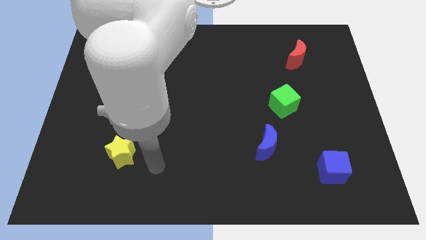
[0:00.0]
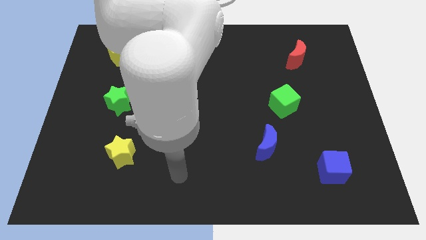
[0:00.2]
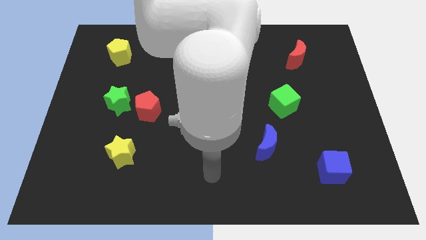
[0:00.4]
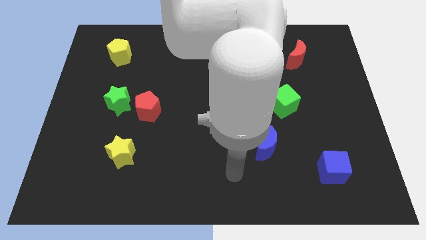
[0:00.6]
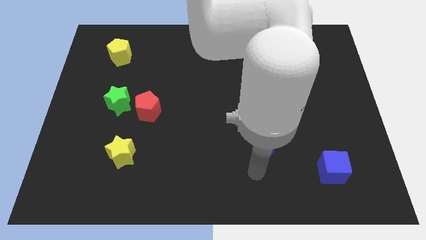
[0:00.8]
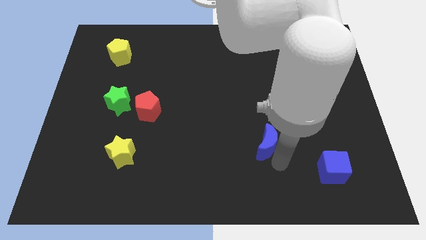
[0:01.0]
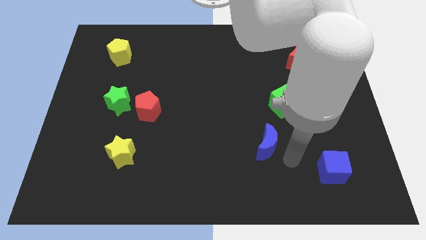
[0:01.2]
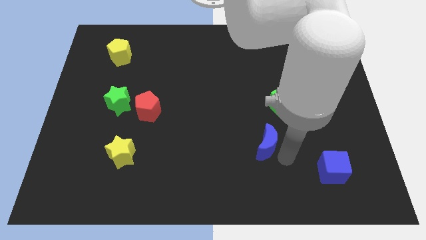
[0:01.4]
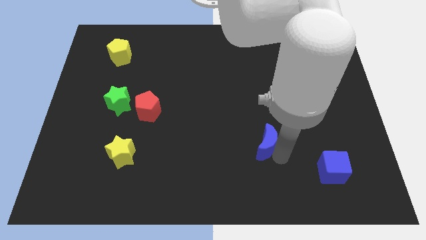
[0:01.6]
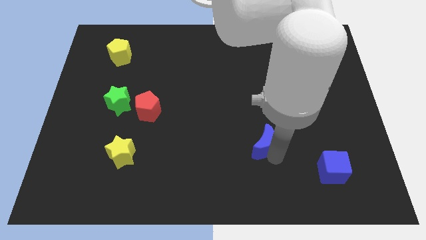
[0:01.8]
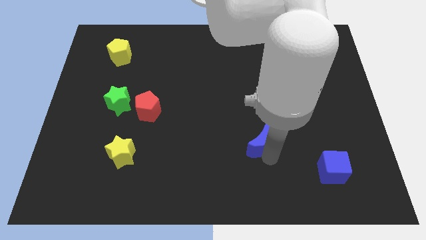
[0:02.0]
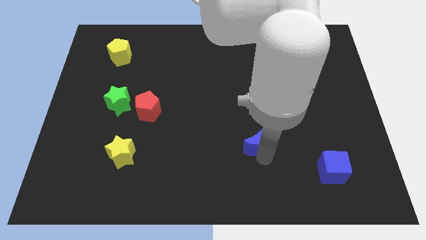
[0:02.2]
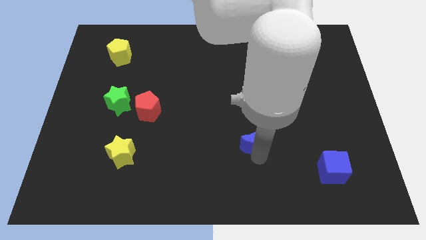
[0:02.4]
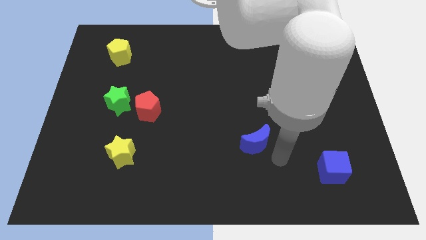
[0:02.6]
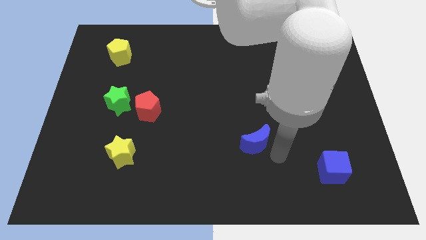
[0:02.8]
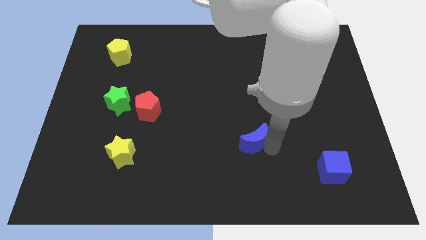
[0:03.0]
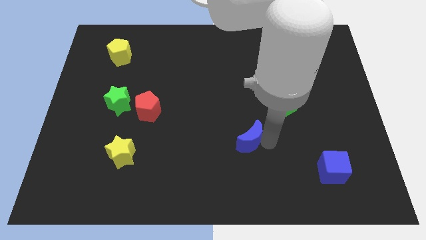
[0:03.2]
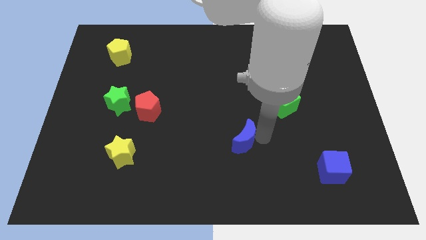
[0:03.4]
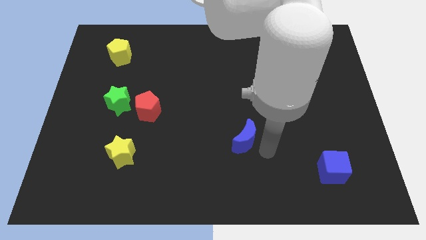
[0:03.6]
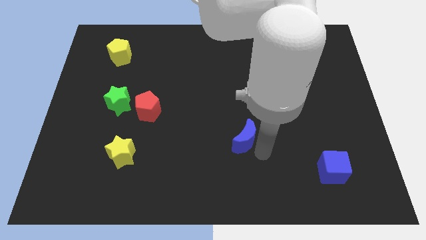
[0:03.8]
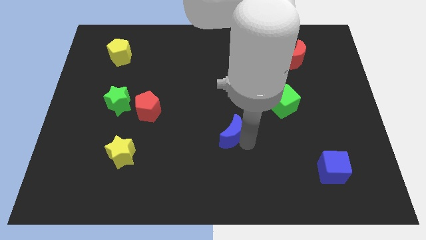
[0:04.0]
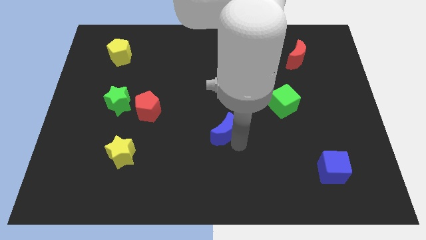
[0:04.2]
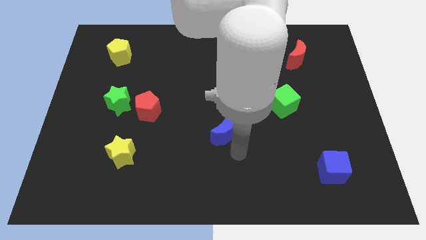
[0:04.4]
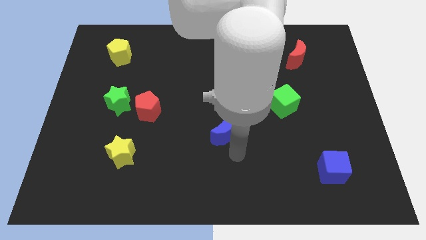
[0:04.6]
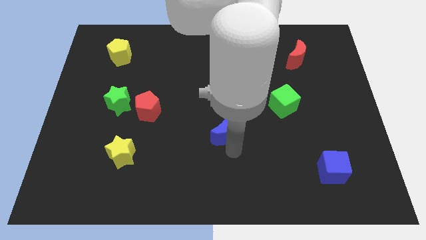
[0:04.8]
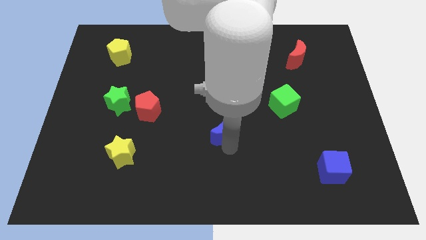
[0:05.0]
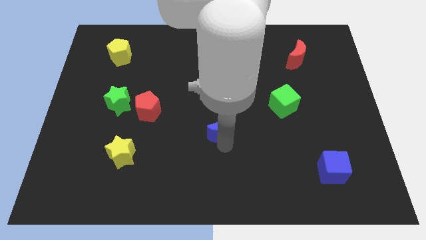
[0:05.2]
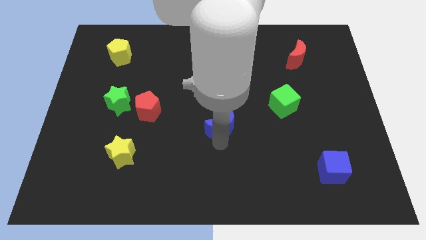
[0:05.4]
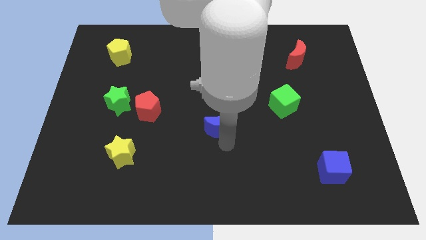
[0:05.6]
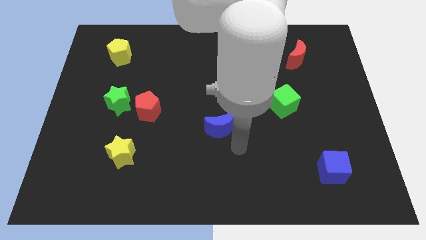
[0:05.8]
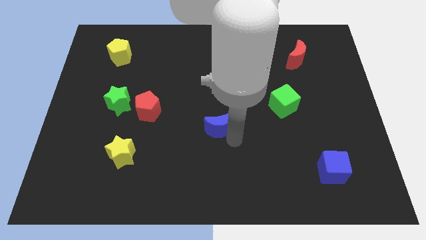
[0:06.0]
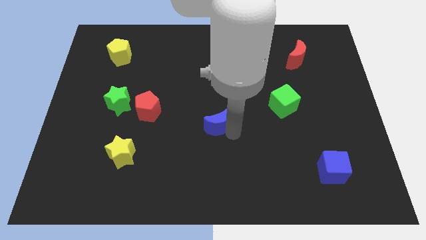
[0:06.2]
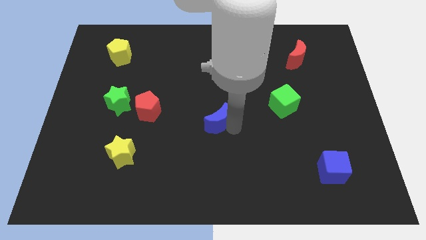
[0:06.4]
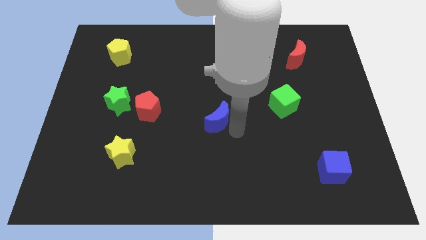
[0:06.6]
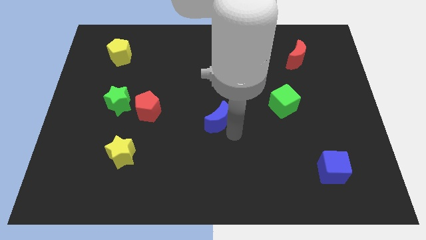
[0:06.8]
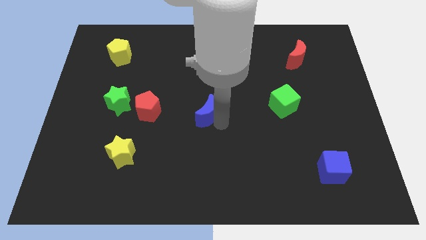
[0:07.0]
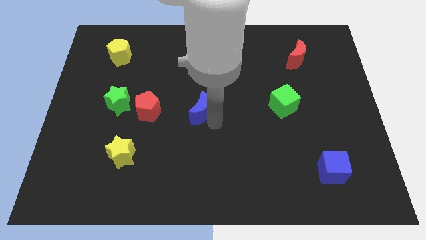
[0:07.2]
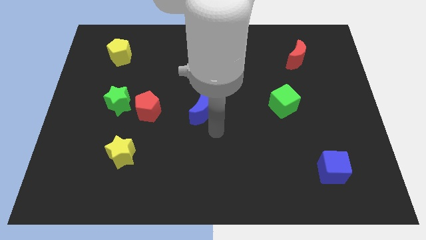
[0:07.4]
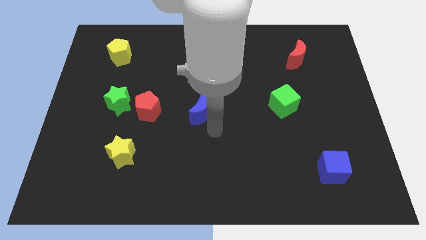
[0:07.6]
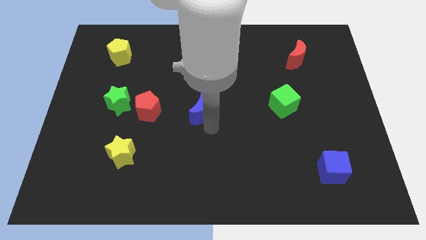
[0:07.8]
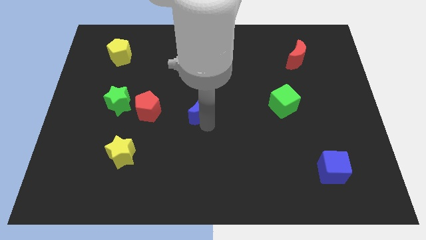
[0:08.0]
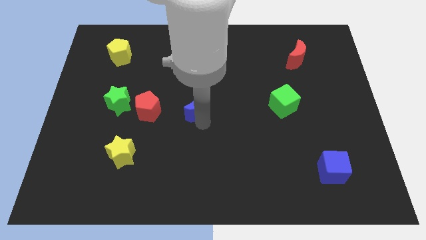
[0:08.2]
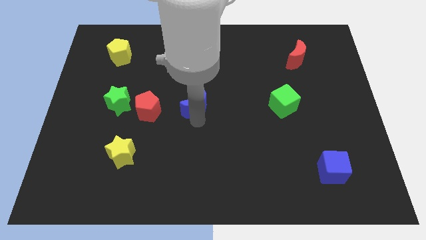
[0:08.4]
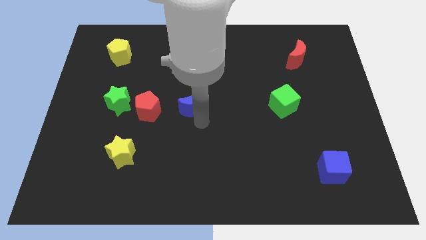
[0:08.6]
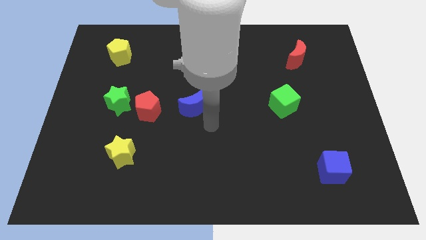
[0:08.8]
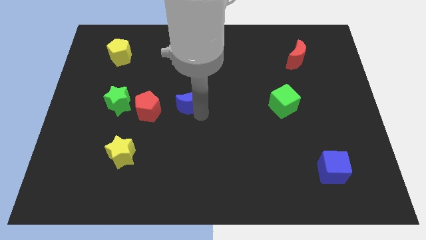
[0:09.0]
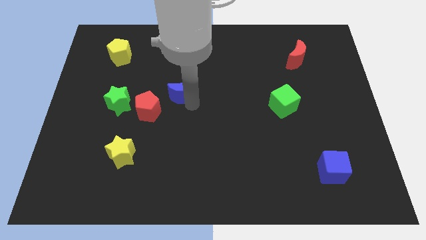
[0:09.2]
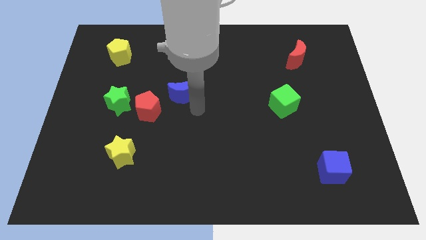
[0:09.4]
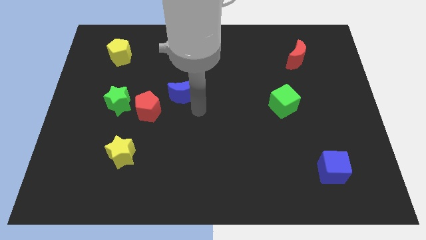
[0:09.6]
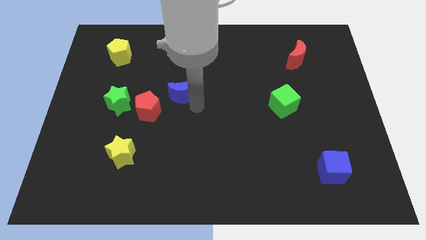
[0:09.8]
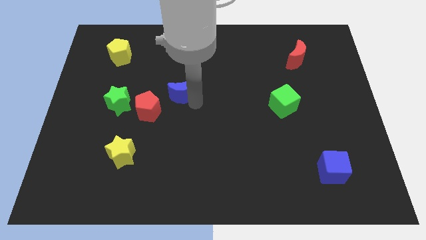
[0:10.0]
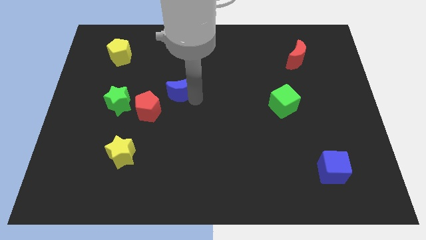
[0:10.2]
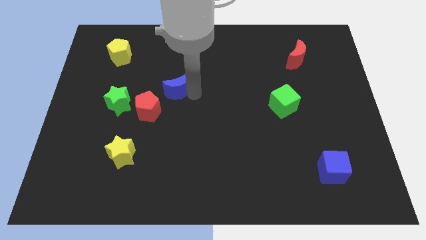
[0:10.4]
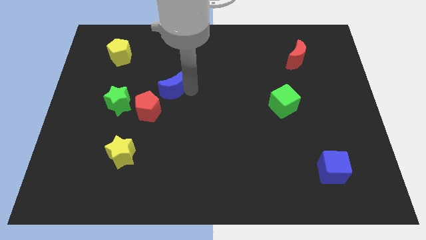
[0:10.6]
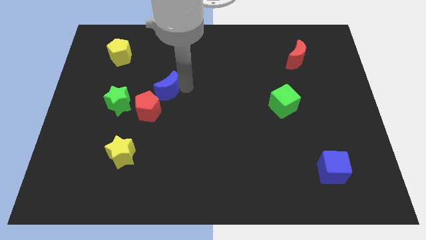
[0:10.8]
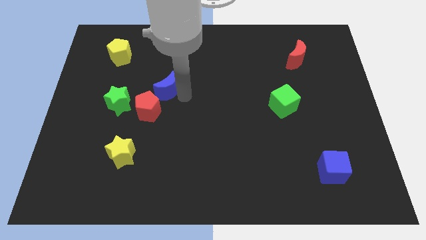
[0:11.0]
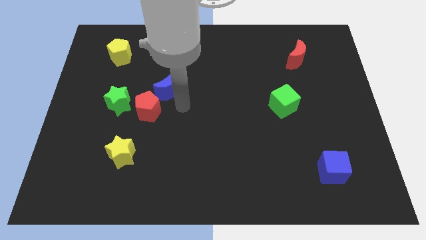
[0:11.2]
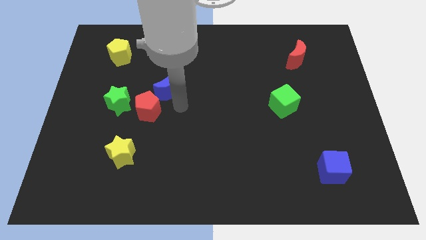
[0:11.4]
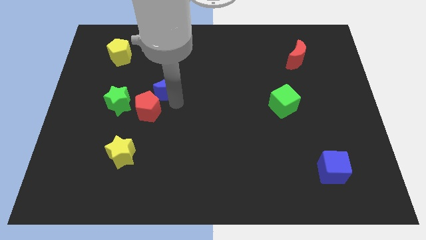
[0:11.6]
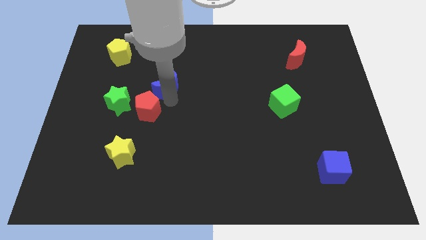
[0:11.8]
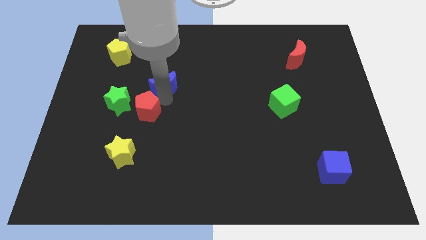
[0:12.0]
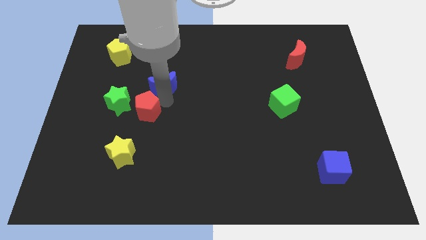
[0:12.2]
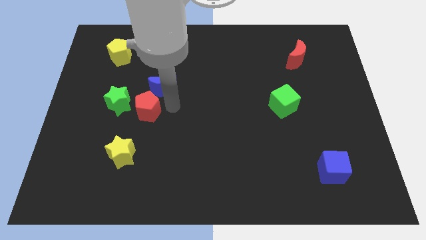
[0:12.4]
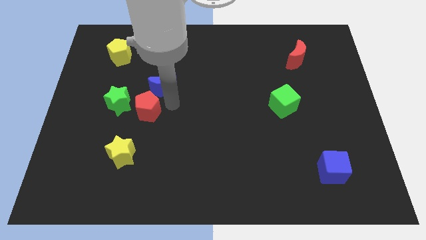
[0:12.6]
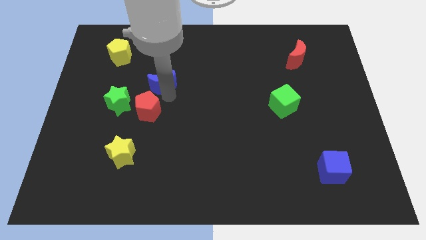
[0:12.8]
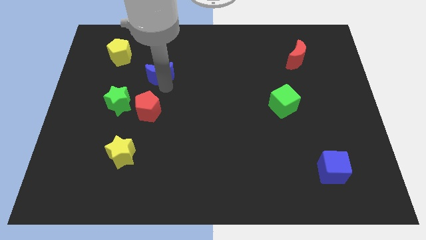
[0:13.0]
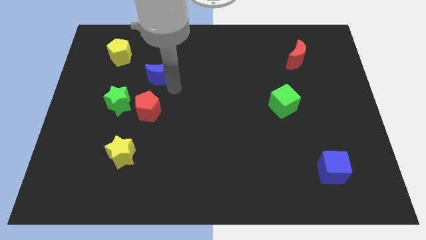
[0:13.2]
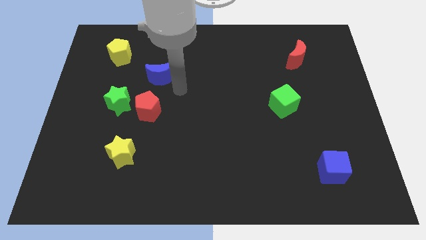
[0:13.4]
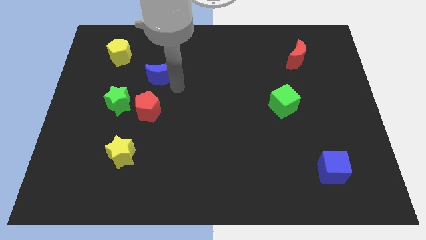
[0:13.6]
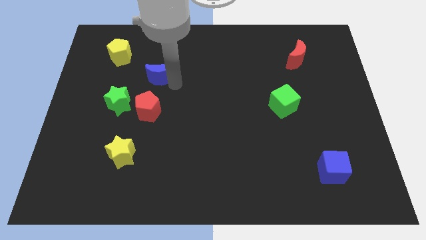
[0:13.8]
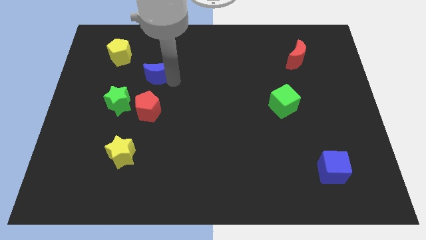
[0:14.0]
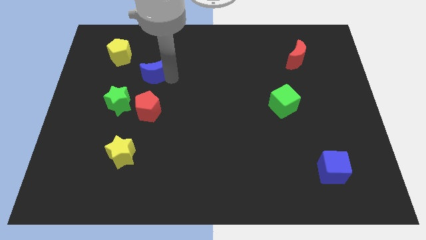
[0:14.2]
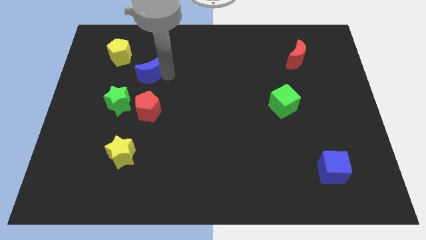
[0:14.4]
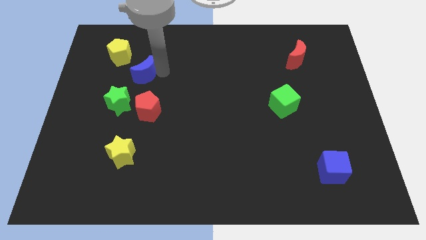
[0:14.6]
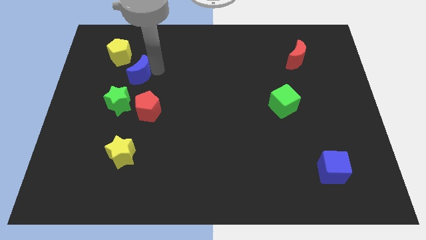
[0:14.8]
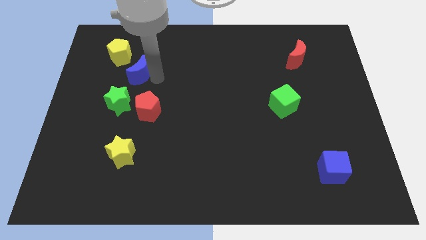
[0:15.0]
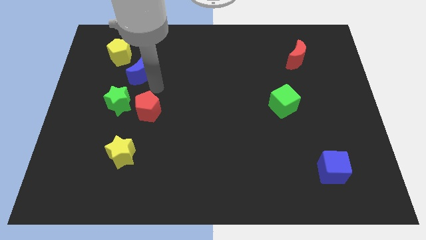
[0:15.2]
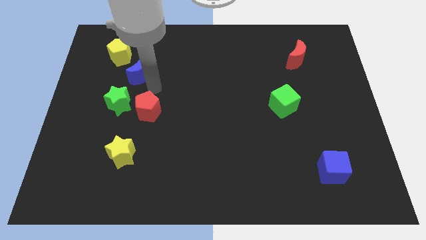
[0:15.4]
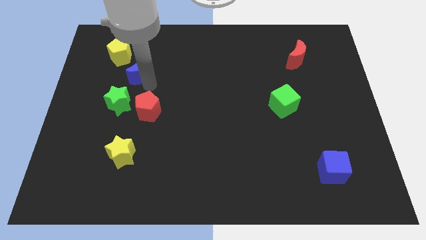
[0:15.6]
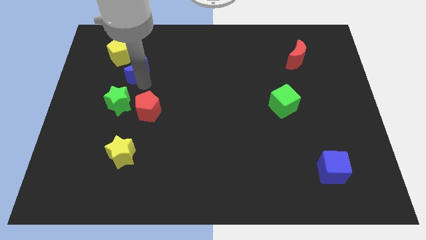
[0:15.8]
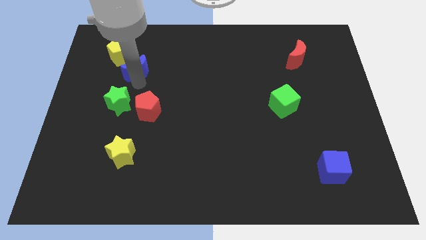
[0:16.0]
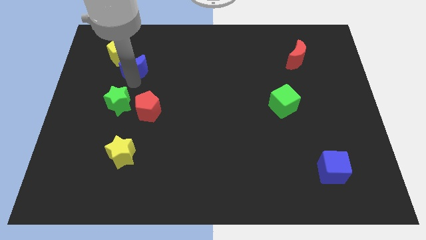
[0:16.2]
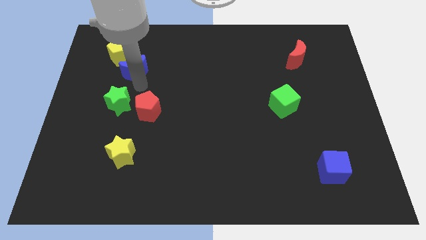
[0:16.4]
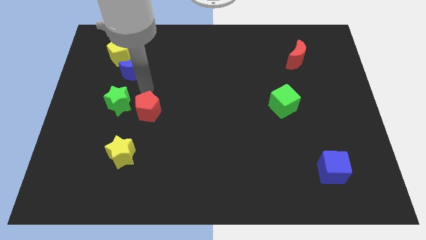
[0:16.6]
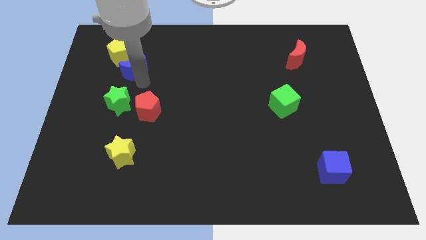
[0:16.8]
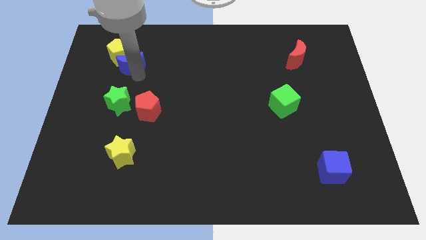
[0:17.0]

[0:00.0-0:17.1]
push the blue moon towards the yellow pentagon
